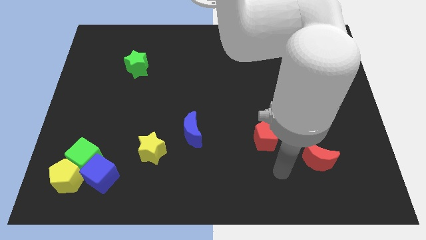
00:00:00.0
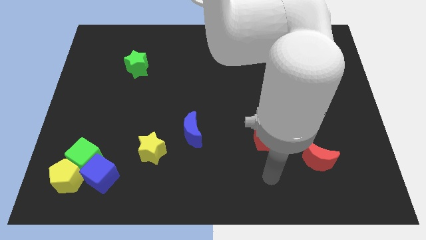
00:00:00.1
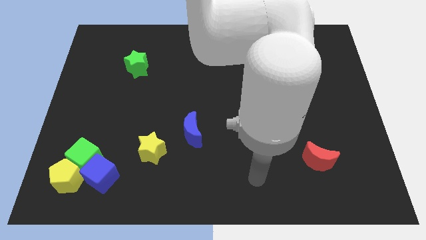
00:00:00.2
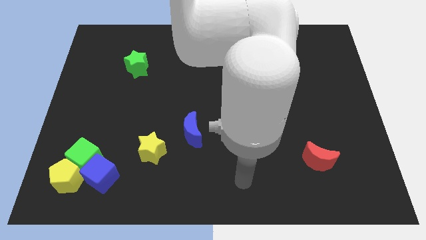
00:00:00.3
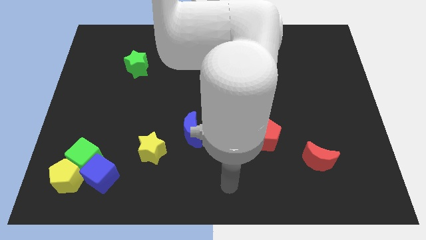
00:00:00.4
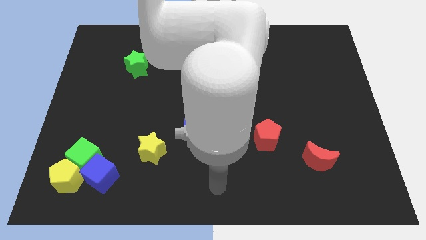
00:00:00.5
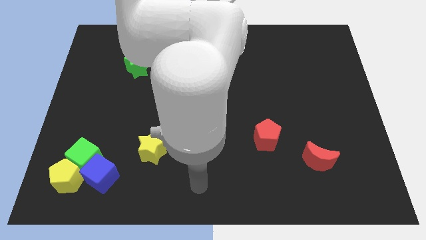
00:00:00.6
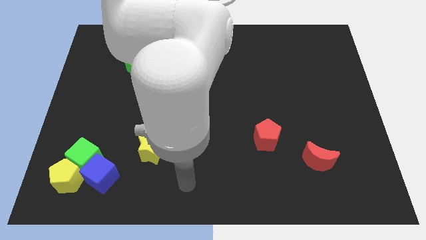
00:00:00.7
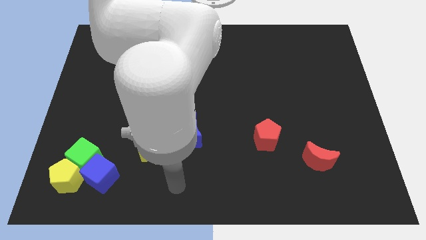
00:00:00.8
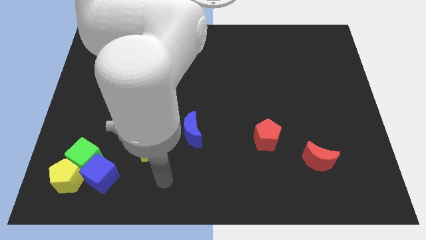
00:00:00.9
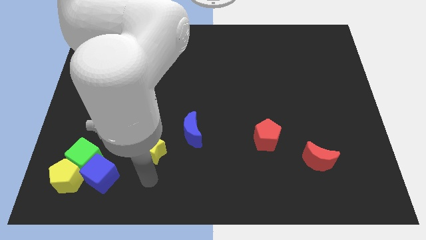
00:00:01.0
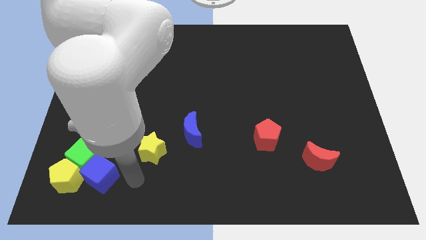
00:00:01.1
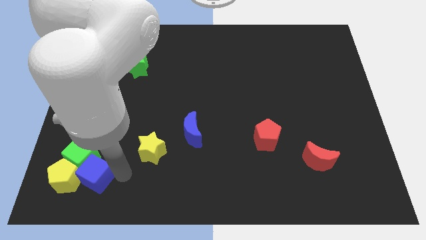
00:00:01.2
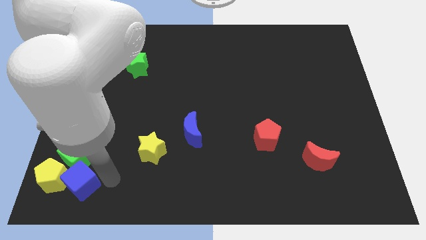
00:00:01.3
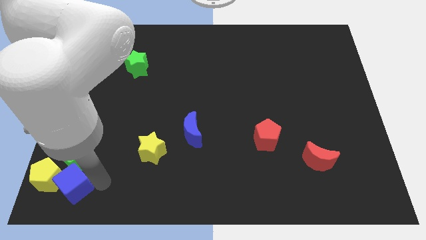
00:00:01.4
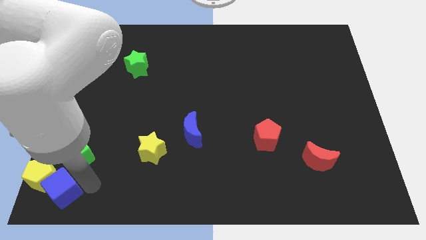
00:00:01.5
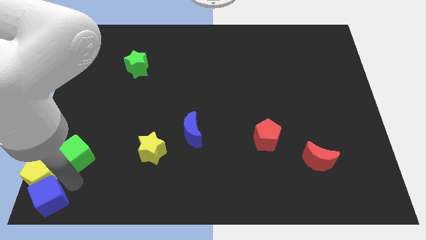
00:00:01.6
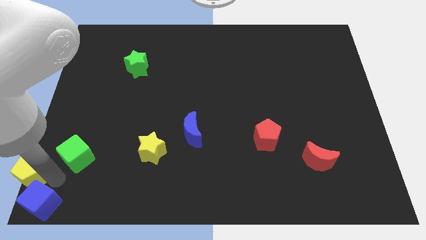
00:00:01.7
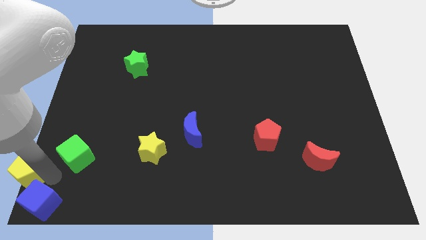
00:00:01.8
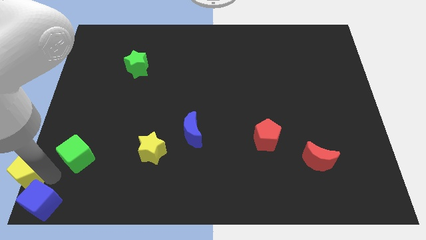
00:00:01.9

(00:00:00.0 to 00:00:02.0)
pull the green cube apart from the yellow pentagon and blue cube

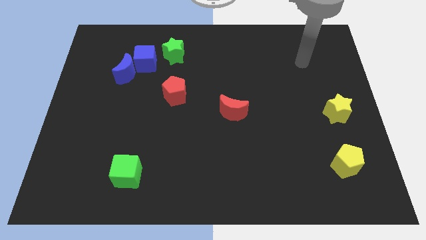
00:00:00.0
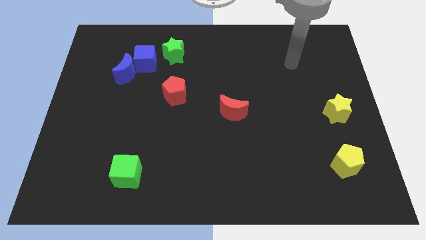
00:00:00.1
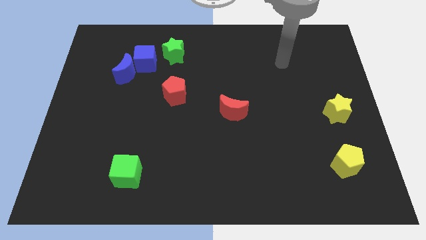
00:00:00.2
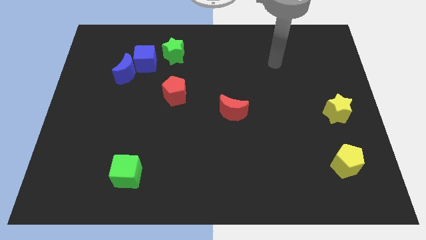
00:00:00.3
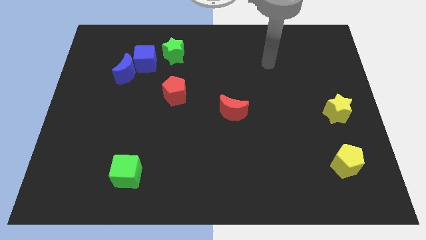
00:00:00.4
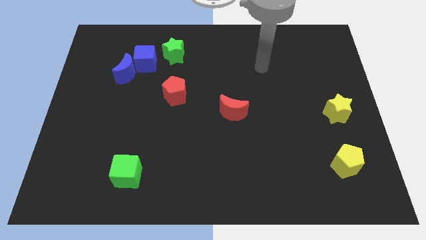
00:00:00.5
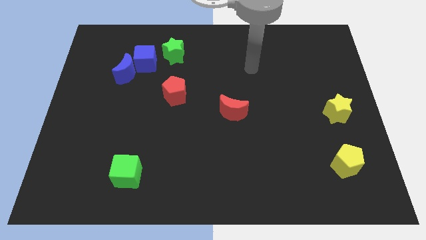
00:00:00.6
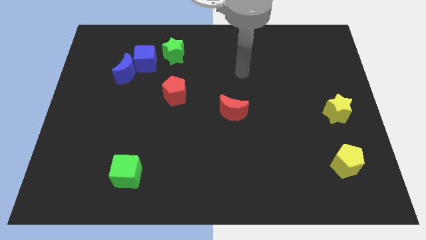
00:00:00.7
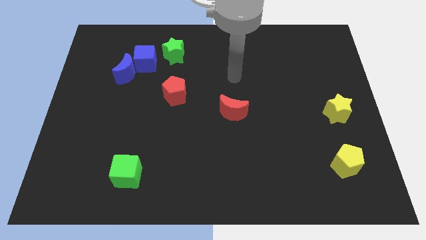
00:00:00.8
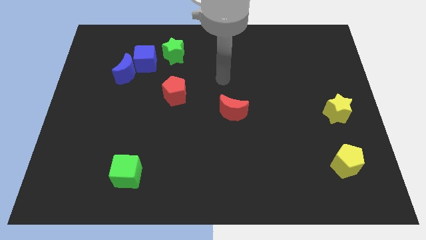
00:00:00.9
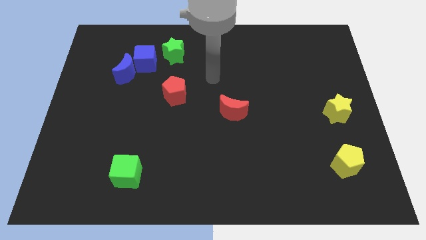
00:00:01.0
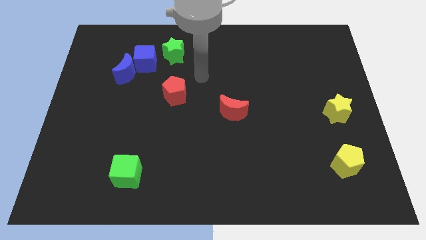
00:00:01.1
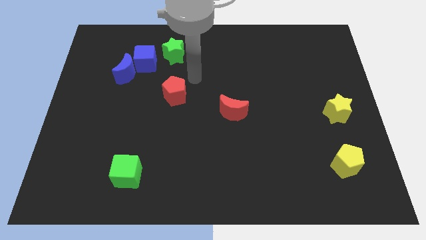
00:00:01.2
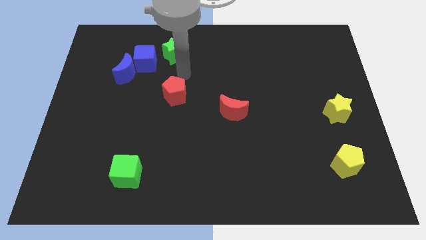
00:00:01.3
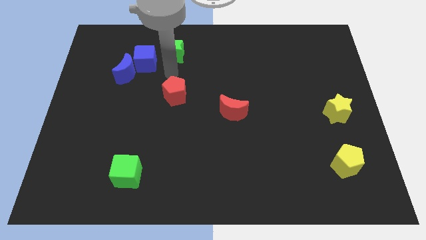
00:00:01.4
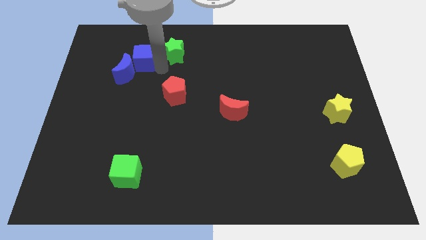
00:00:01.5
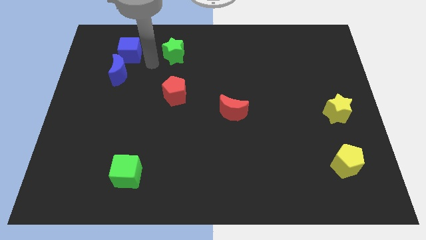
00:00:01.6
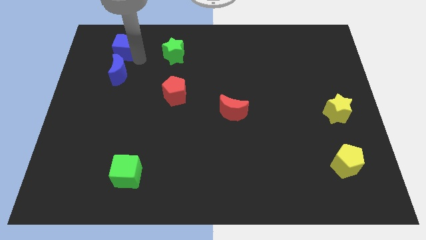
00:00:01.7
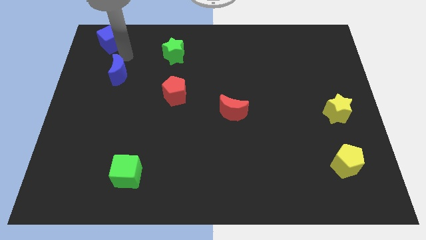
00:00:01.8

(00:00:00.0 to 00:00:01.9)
move the blue moon away from the blue cube

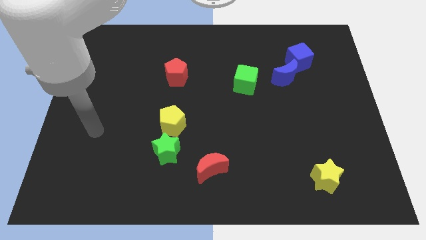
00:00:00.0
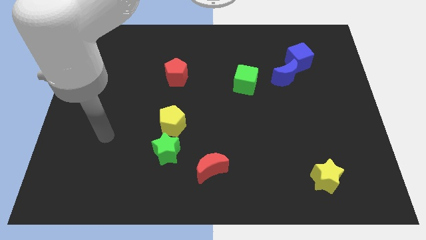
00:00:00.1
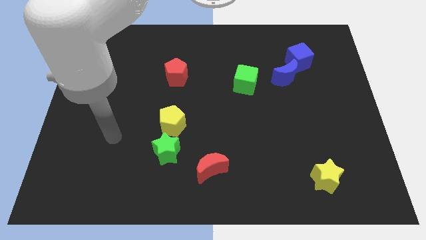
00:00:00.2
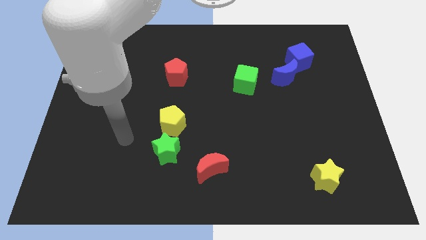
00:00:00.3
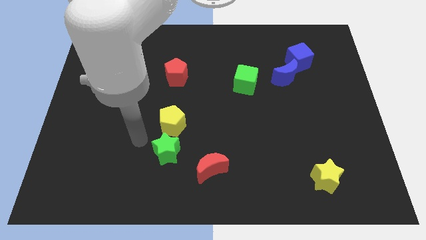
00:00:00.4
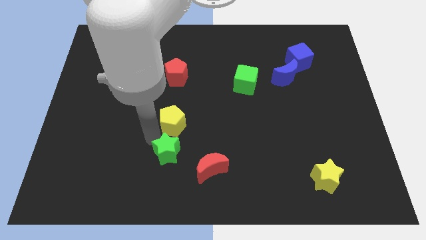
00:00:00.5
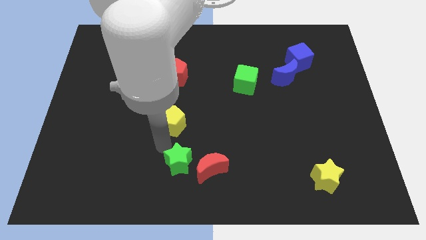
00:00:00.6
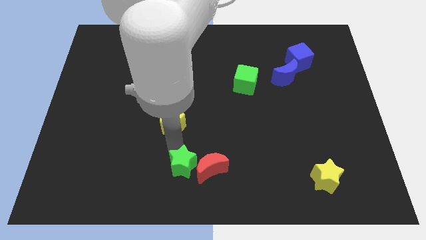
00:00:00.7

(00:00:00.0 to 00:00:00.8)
separate the yellow pentagon from the green star

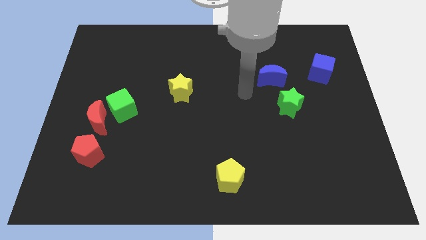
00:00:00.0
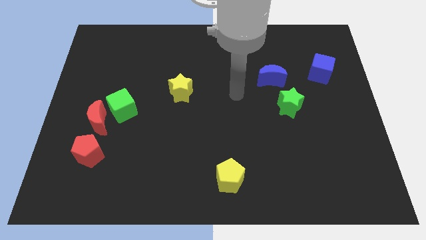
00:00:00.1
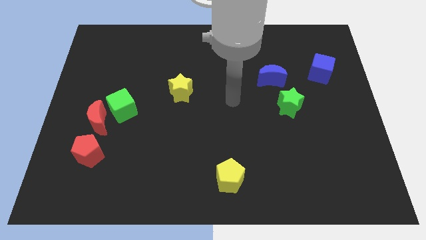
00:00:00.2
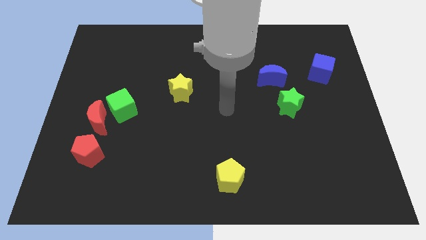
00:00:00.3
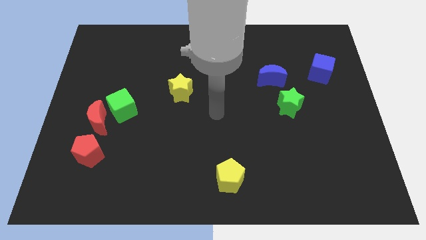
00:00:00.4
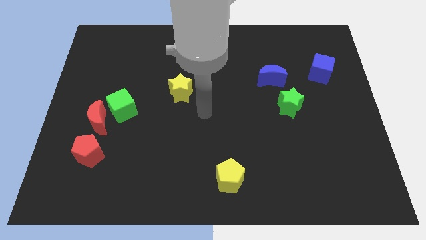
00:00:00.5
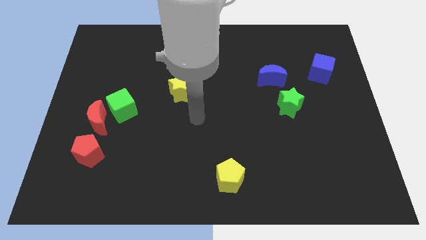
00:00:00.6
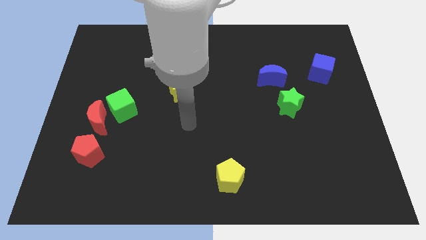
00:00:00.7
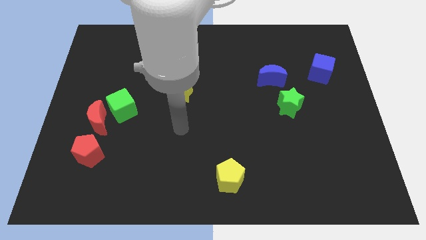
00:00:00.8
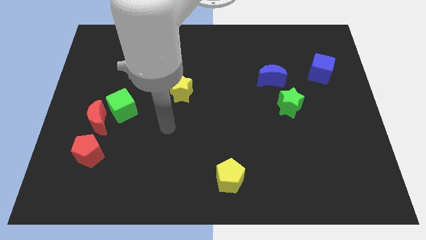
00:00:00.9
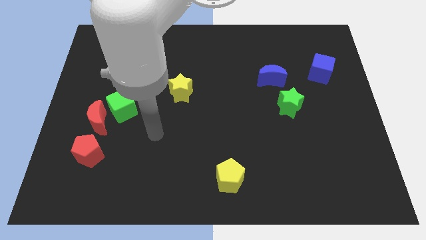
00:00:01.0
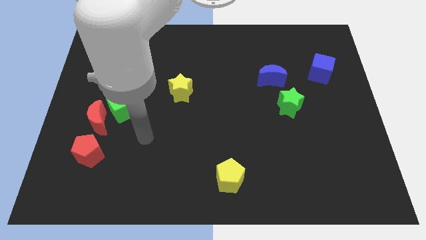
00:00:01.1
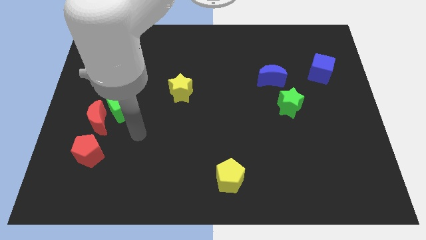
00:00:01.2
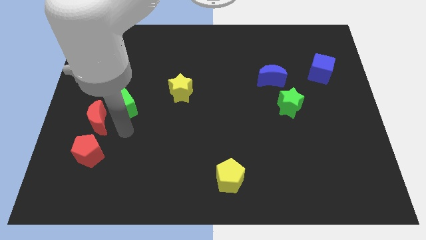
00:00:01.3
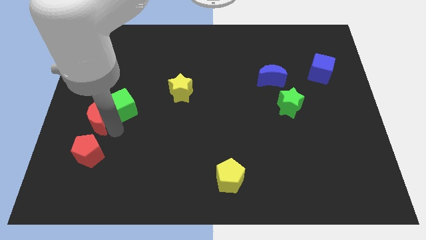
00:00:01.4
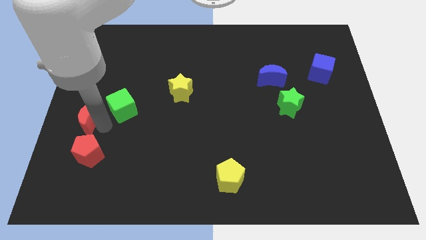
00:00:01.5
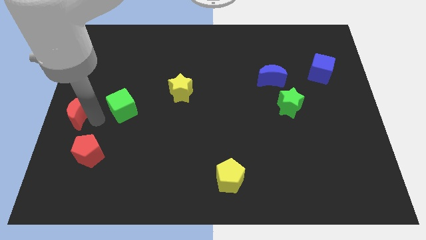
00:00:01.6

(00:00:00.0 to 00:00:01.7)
move the green cube away from the red moon

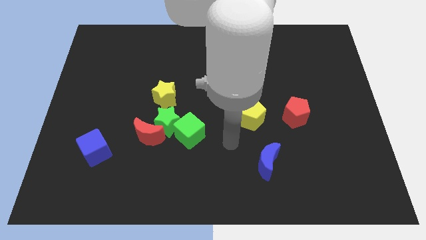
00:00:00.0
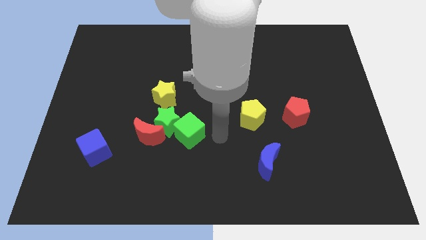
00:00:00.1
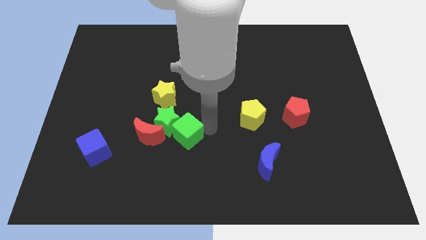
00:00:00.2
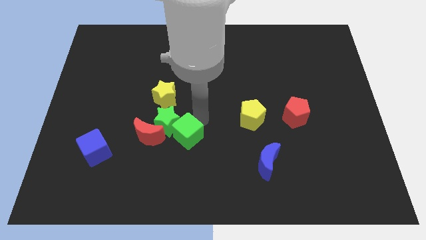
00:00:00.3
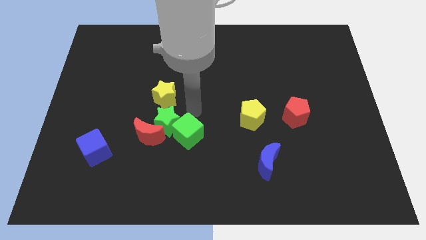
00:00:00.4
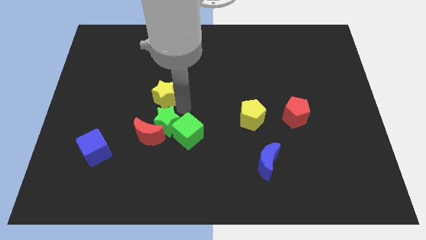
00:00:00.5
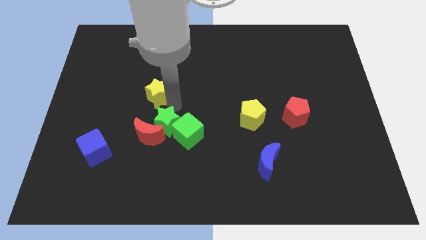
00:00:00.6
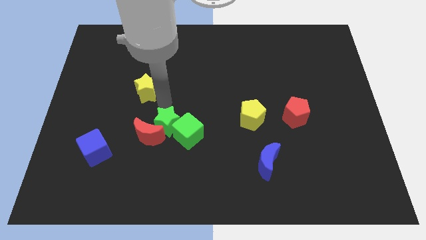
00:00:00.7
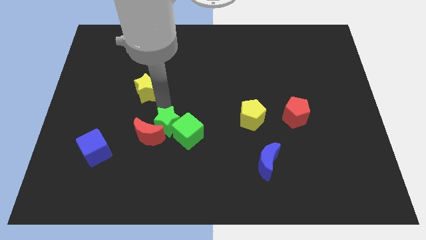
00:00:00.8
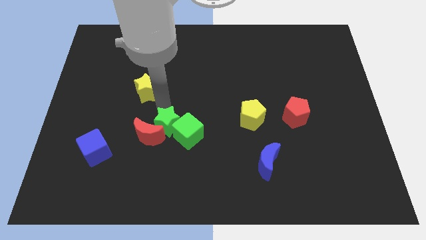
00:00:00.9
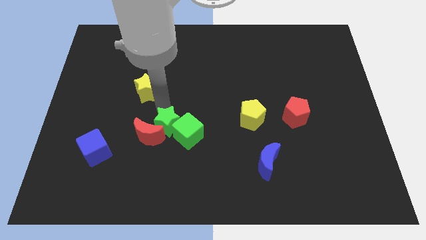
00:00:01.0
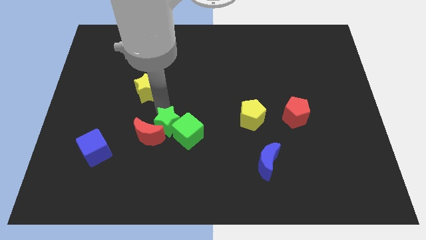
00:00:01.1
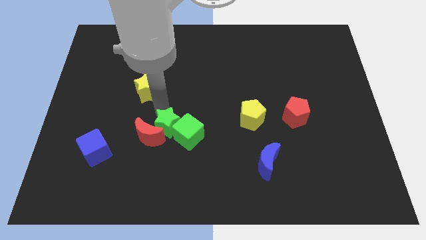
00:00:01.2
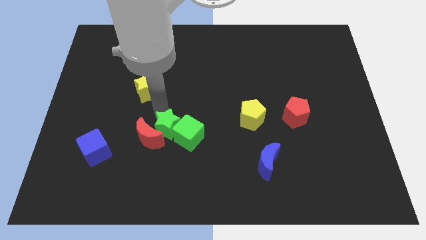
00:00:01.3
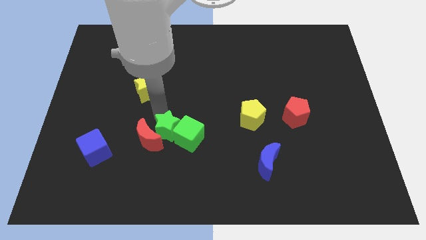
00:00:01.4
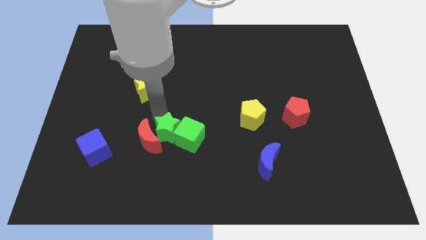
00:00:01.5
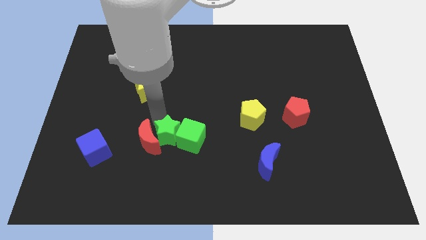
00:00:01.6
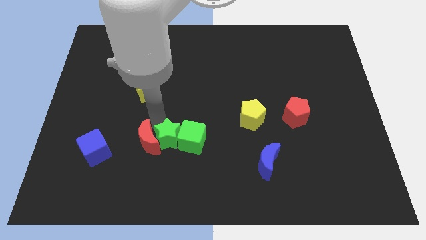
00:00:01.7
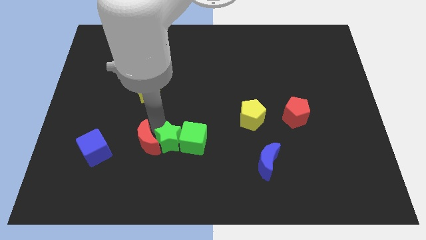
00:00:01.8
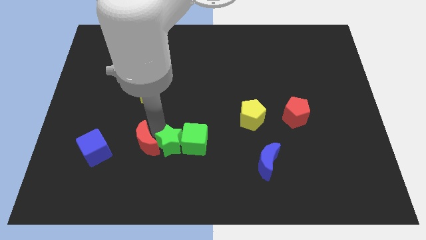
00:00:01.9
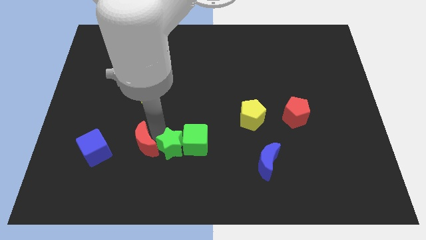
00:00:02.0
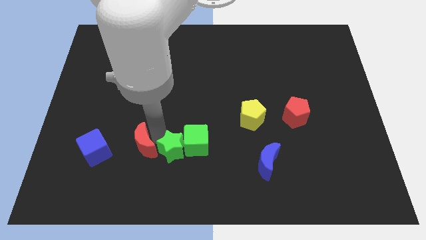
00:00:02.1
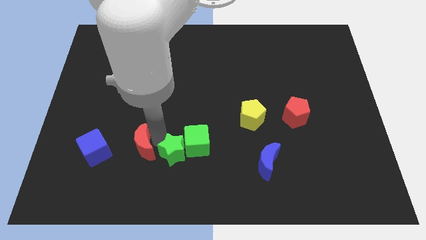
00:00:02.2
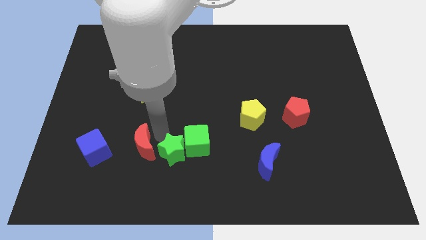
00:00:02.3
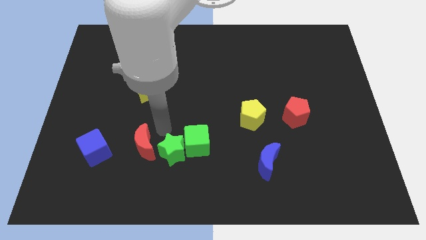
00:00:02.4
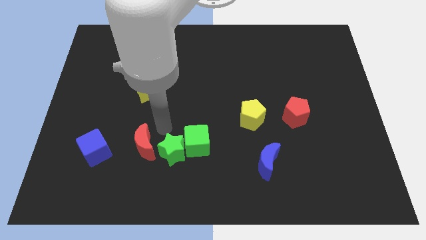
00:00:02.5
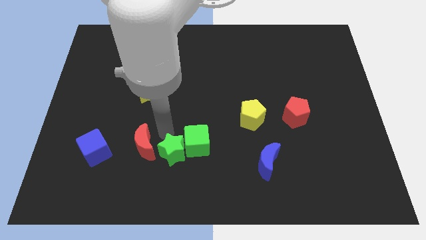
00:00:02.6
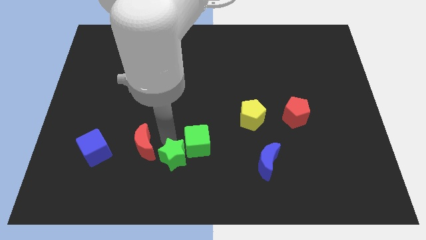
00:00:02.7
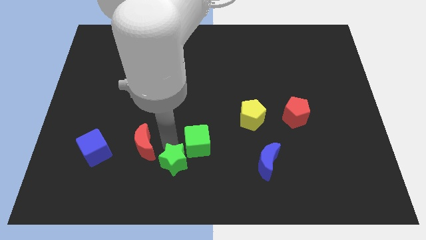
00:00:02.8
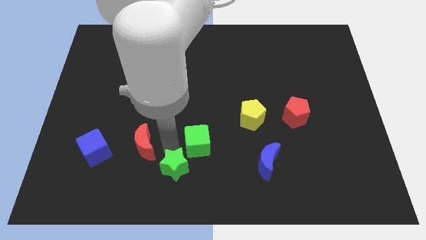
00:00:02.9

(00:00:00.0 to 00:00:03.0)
pull the green star apart from the red moon, green cube, and yellow star
